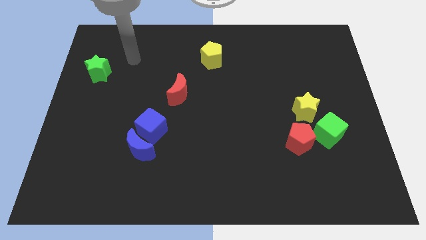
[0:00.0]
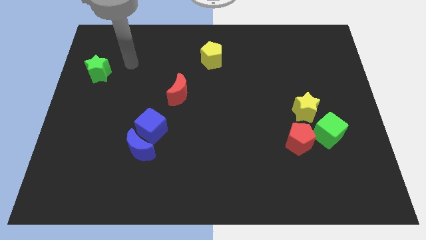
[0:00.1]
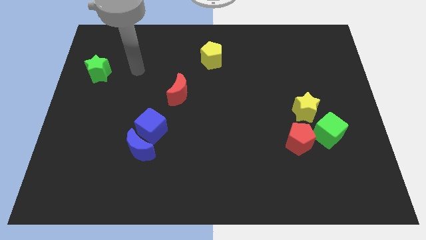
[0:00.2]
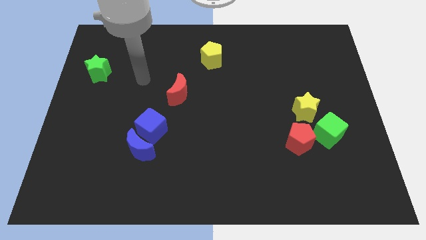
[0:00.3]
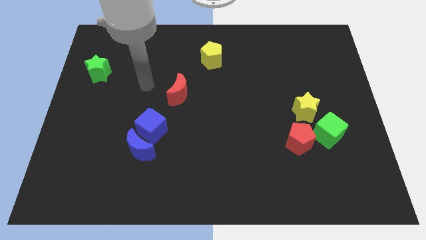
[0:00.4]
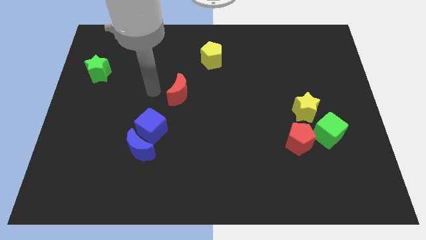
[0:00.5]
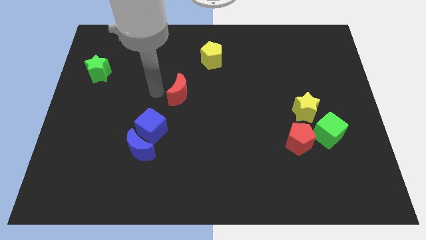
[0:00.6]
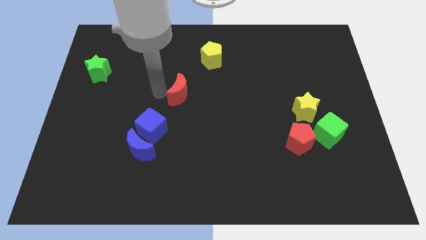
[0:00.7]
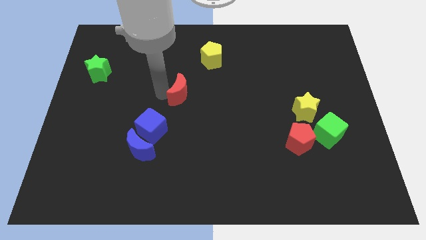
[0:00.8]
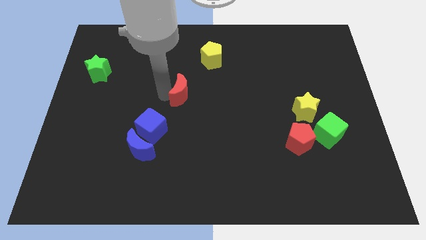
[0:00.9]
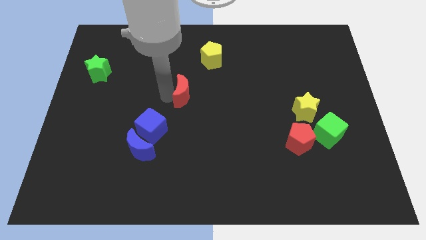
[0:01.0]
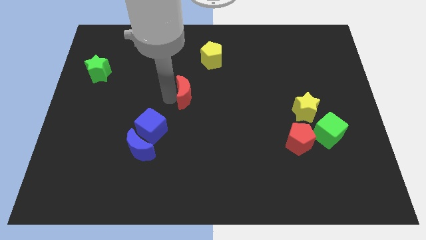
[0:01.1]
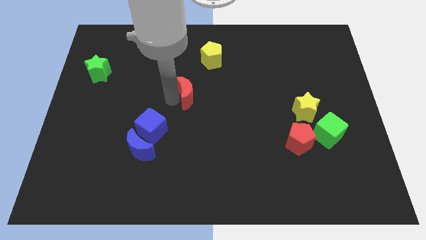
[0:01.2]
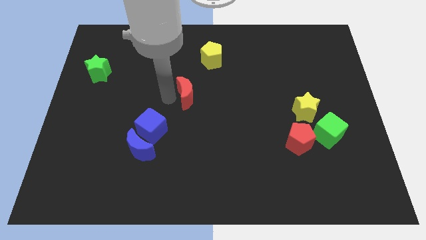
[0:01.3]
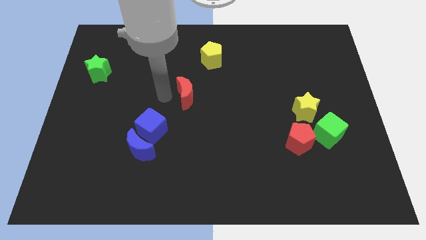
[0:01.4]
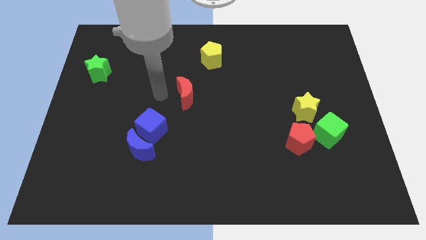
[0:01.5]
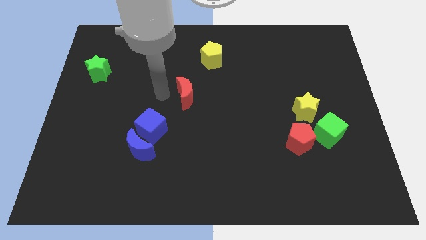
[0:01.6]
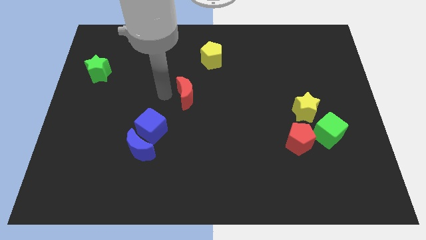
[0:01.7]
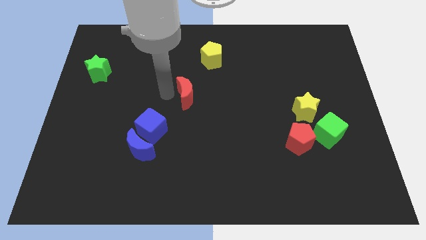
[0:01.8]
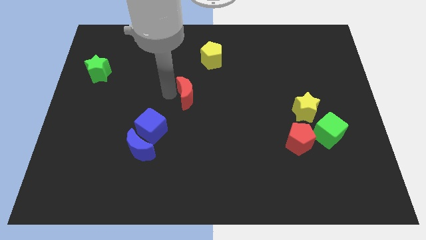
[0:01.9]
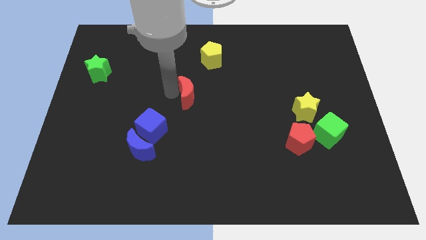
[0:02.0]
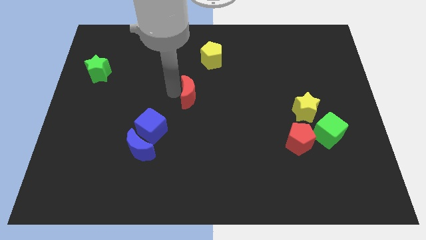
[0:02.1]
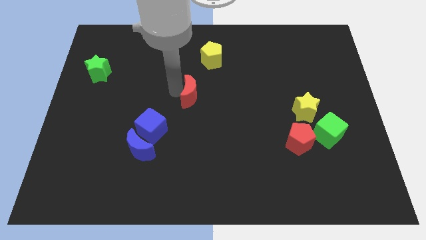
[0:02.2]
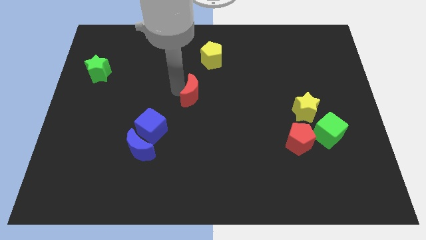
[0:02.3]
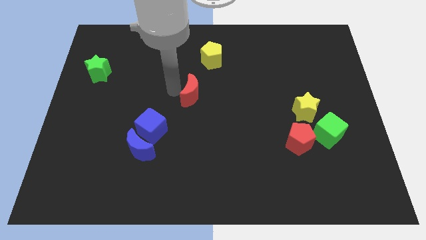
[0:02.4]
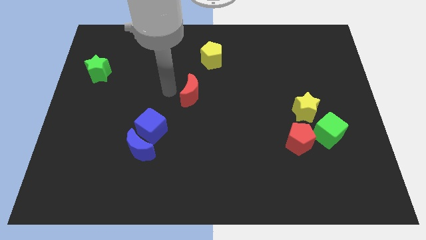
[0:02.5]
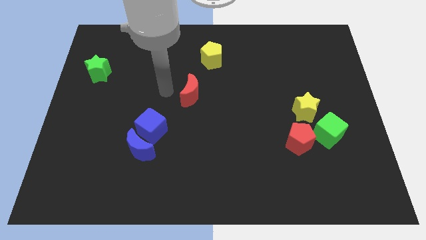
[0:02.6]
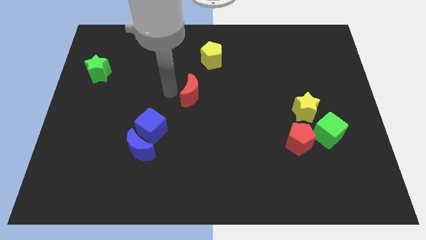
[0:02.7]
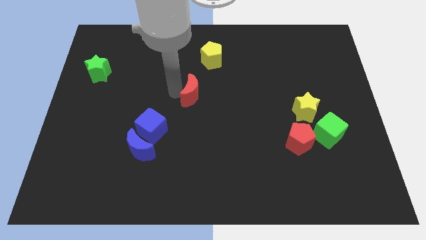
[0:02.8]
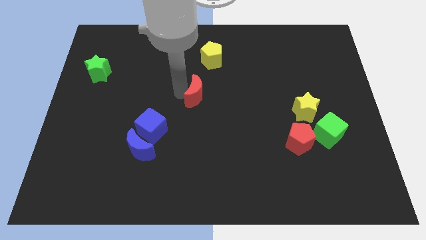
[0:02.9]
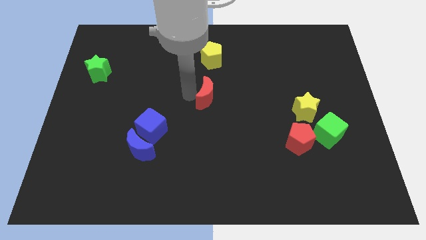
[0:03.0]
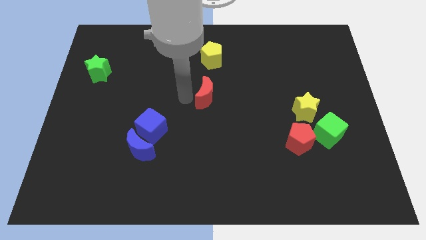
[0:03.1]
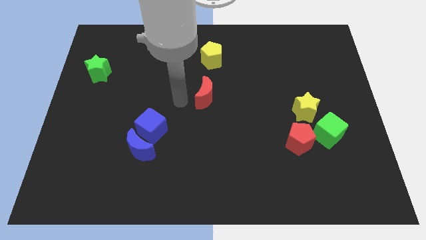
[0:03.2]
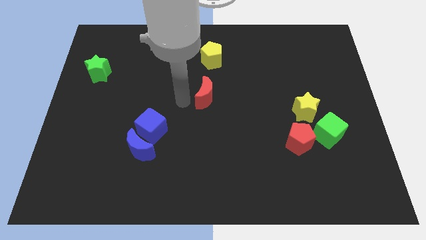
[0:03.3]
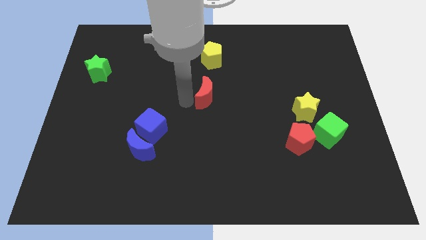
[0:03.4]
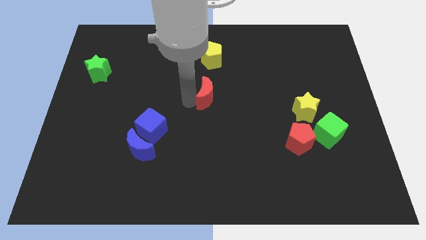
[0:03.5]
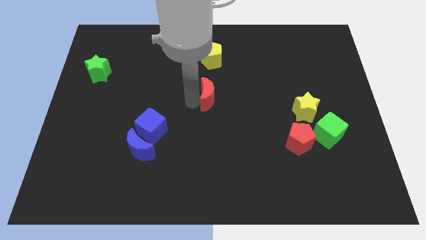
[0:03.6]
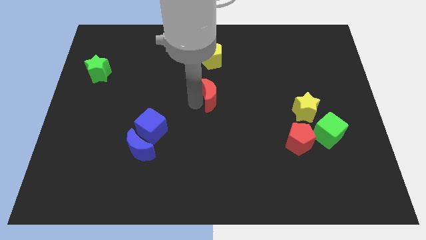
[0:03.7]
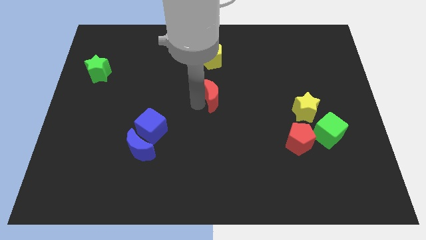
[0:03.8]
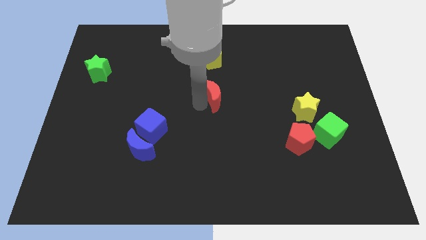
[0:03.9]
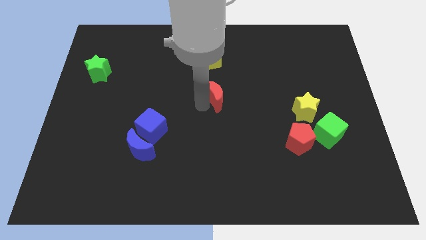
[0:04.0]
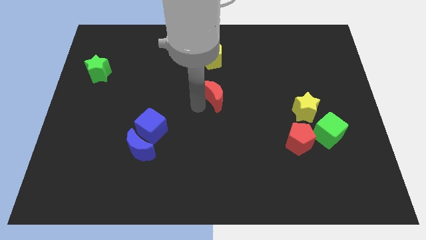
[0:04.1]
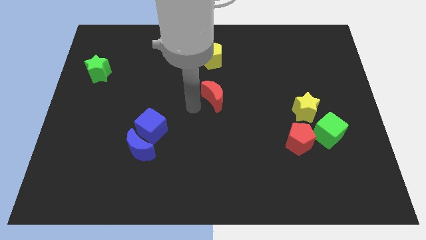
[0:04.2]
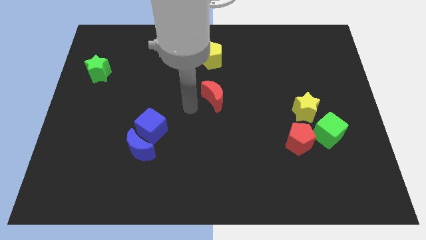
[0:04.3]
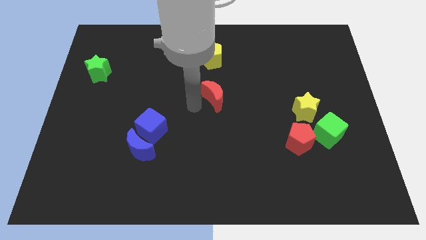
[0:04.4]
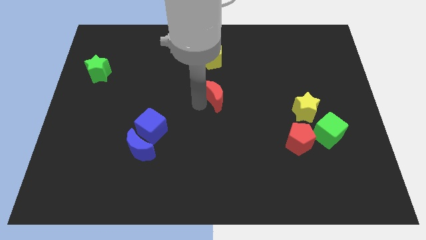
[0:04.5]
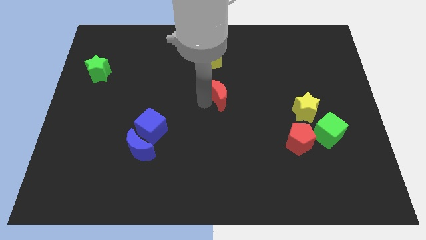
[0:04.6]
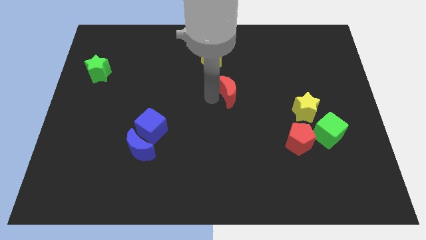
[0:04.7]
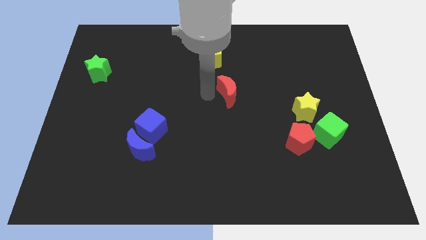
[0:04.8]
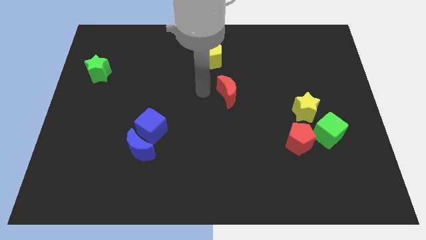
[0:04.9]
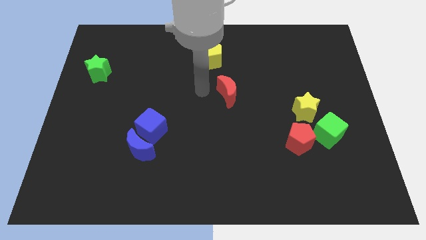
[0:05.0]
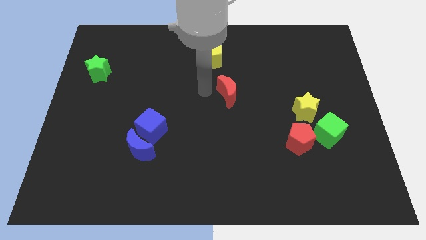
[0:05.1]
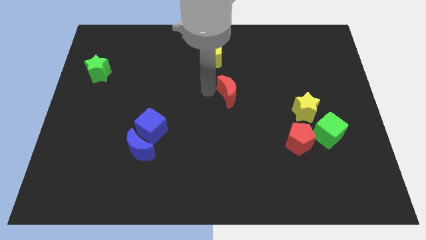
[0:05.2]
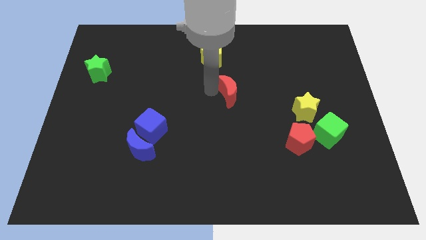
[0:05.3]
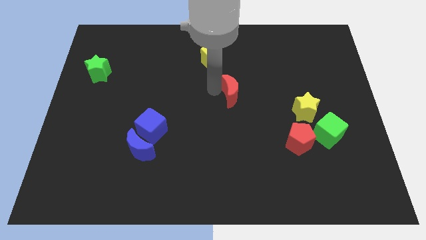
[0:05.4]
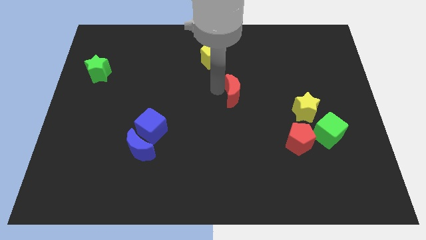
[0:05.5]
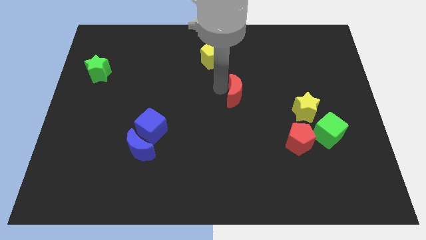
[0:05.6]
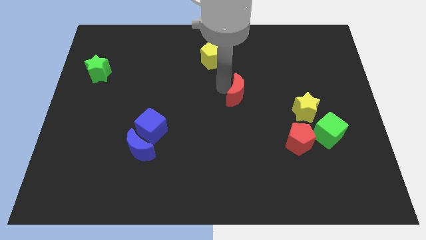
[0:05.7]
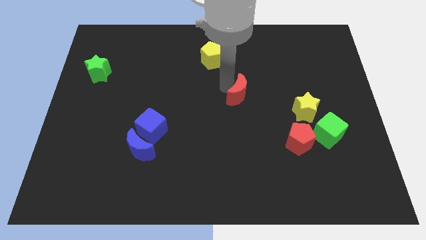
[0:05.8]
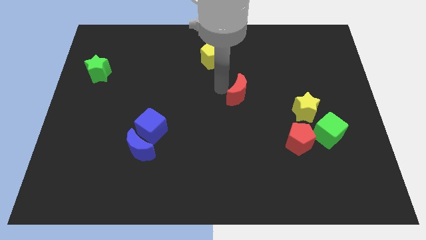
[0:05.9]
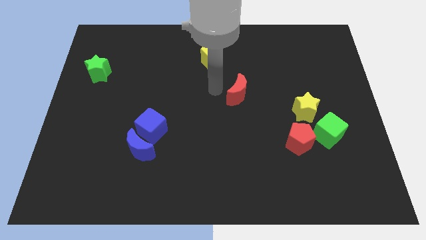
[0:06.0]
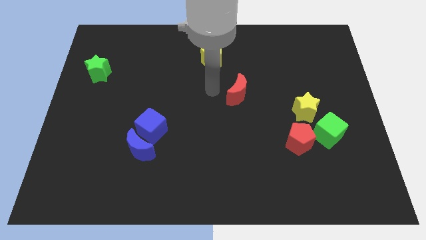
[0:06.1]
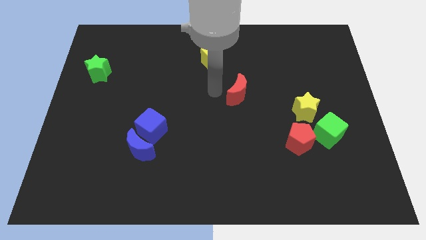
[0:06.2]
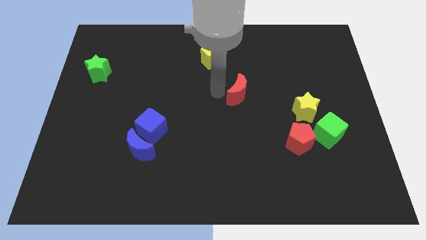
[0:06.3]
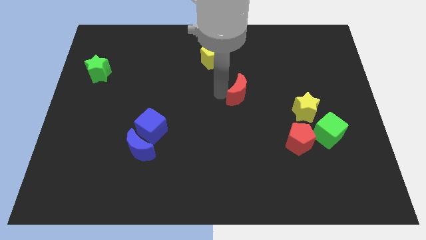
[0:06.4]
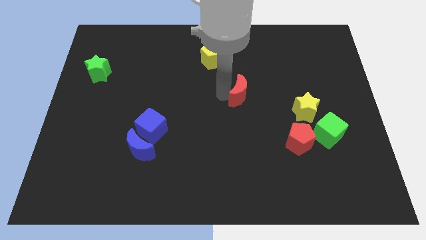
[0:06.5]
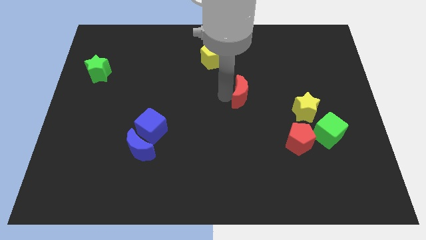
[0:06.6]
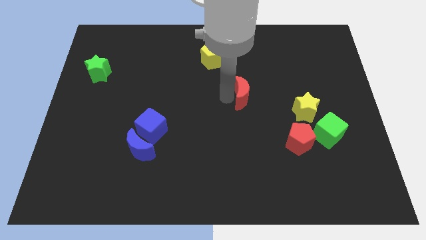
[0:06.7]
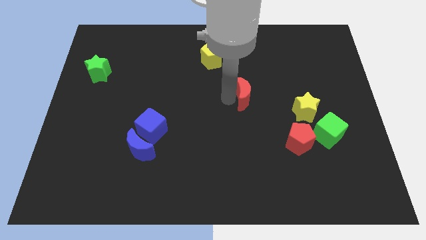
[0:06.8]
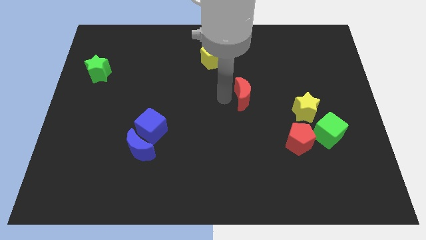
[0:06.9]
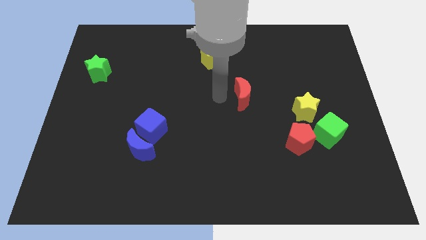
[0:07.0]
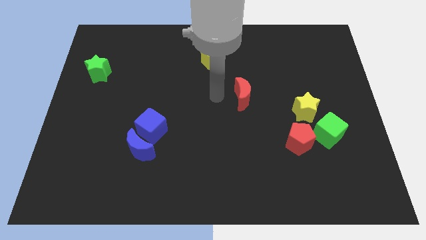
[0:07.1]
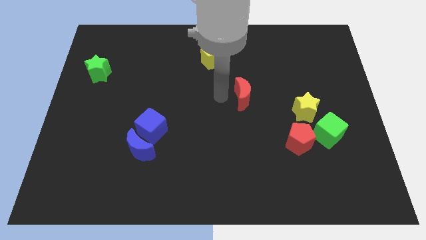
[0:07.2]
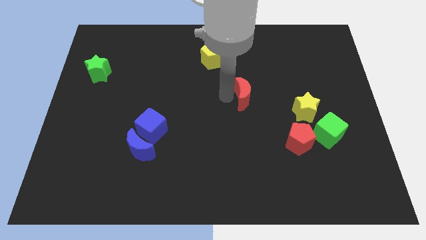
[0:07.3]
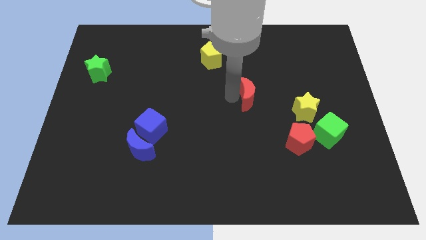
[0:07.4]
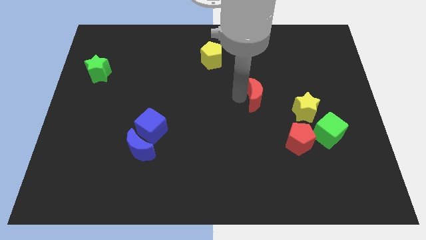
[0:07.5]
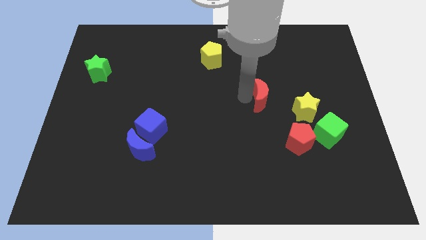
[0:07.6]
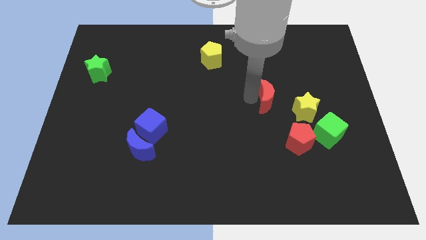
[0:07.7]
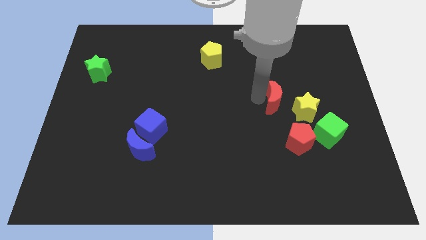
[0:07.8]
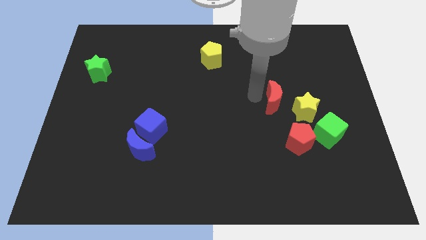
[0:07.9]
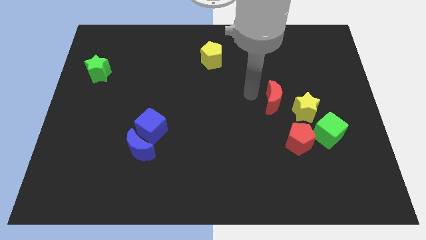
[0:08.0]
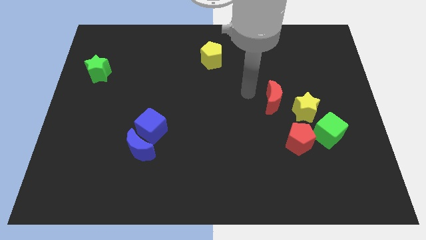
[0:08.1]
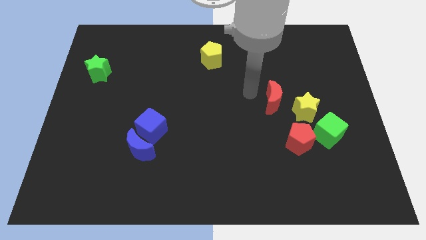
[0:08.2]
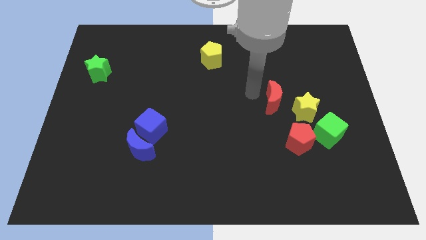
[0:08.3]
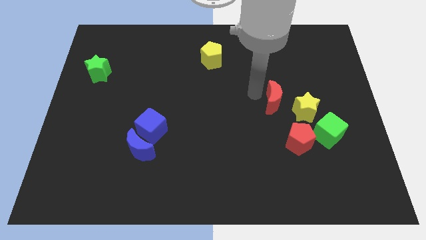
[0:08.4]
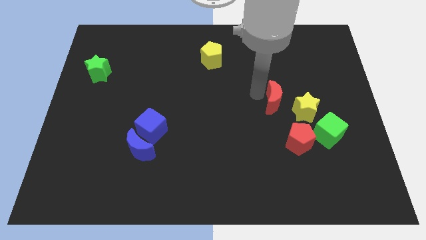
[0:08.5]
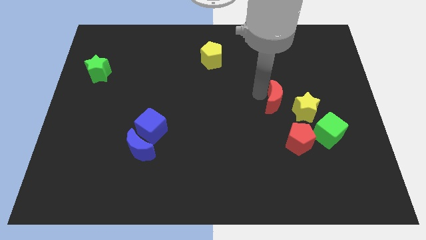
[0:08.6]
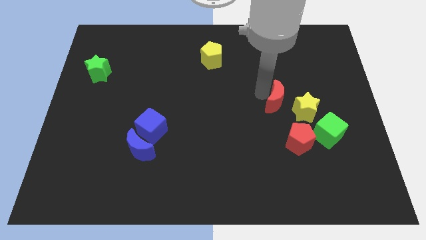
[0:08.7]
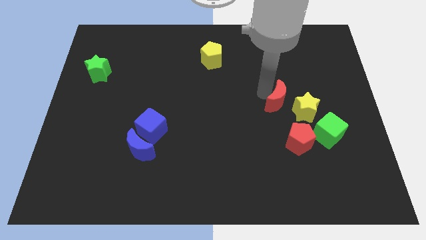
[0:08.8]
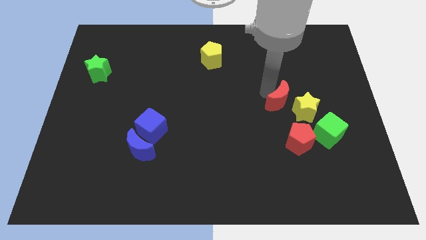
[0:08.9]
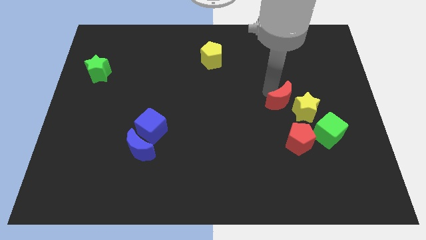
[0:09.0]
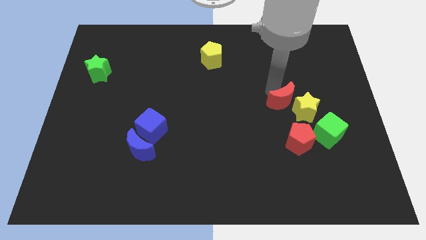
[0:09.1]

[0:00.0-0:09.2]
move the red moon to the top left side of the green cube
